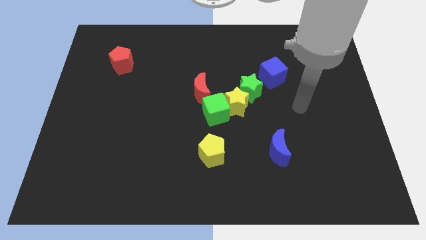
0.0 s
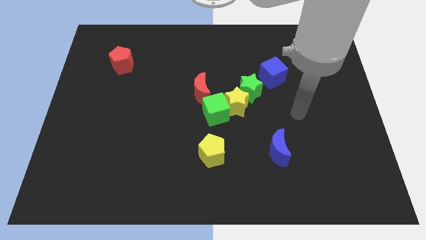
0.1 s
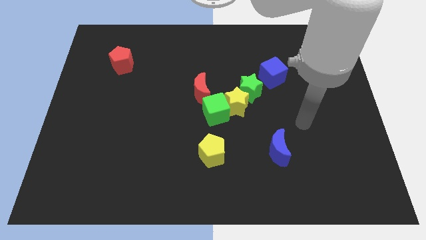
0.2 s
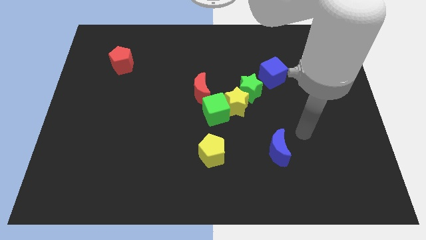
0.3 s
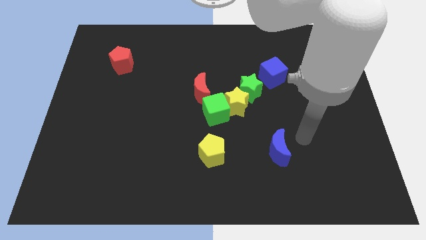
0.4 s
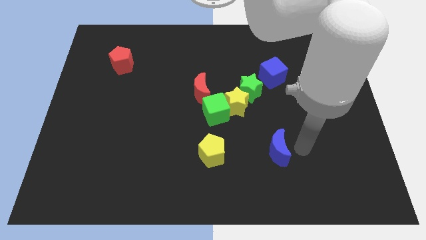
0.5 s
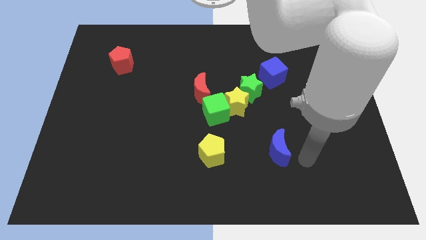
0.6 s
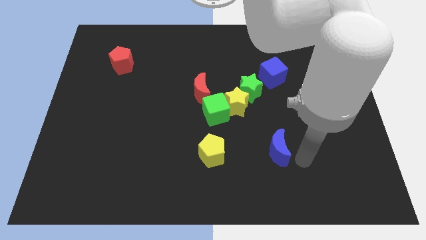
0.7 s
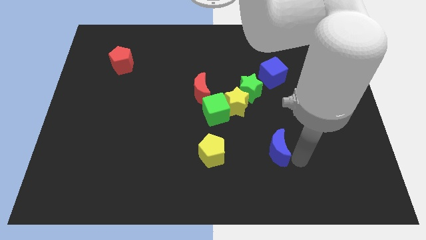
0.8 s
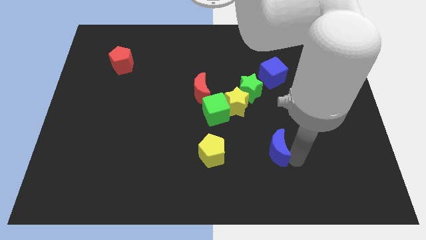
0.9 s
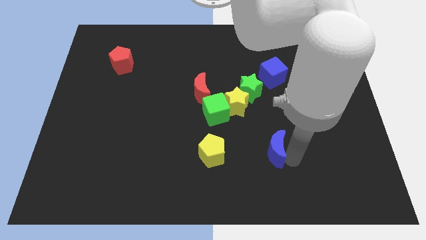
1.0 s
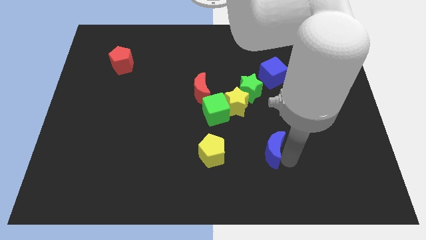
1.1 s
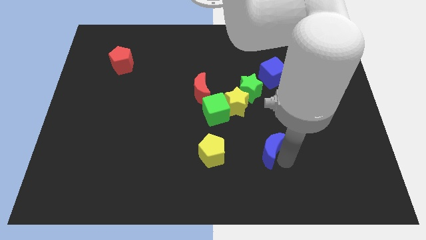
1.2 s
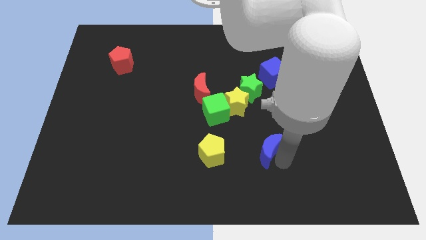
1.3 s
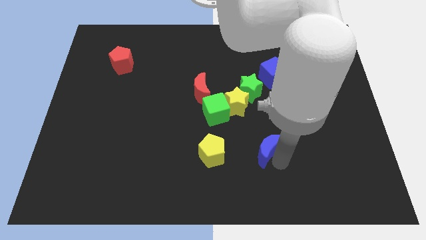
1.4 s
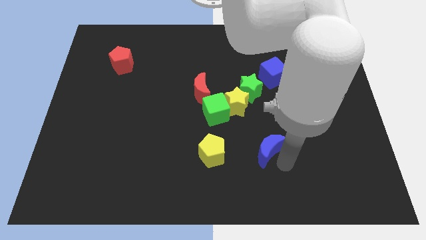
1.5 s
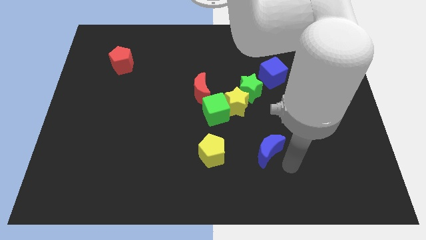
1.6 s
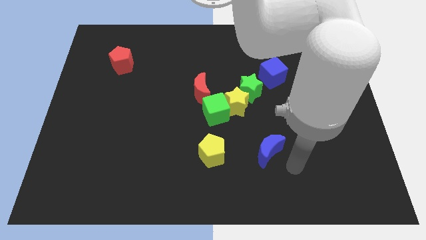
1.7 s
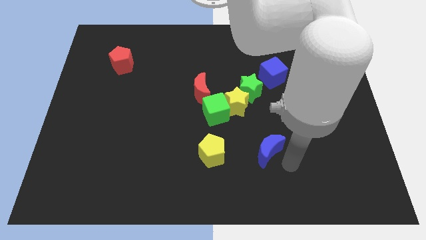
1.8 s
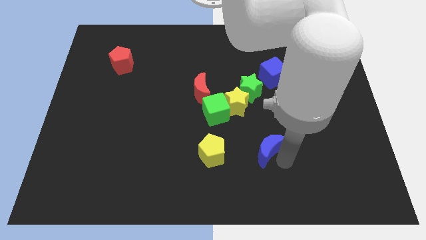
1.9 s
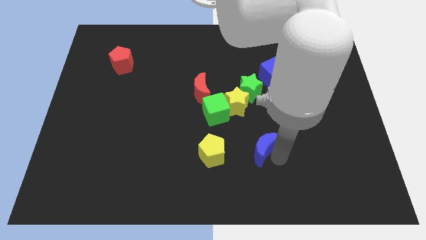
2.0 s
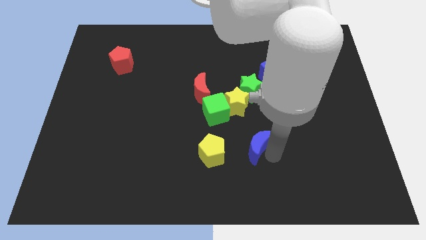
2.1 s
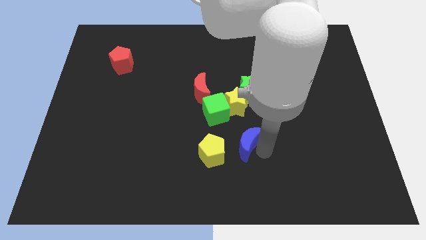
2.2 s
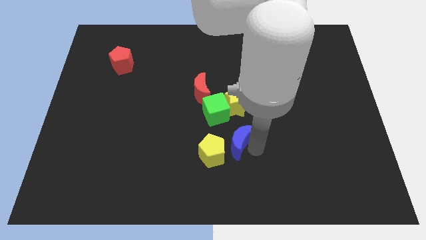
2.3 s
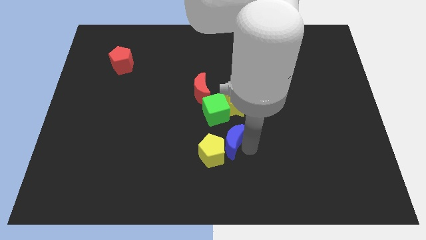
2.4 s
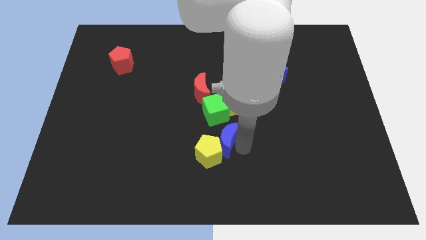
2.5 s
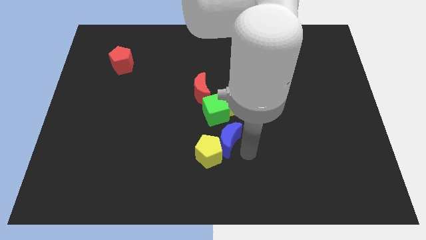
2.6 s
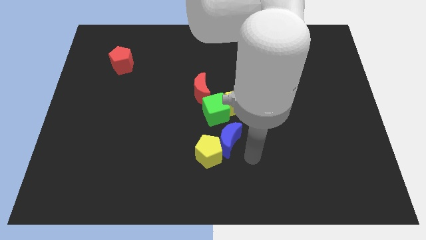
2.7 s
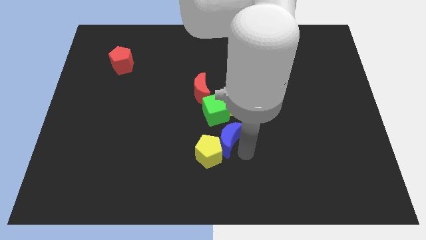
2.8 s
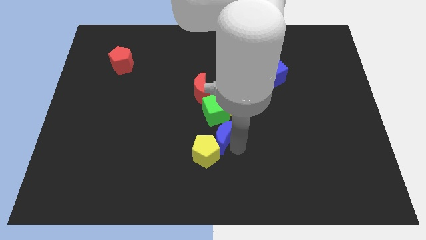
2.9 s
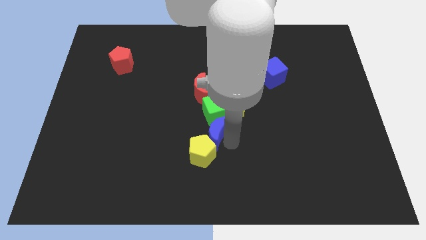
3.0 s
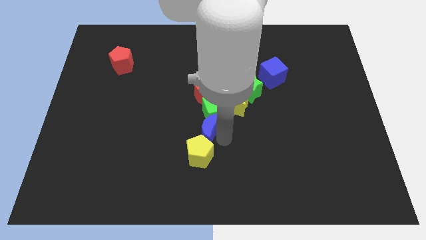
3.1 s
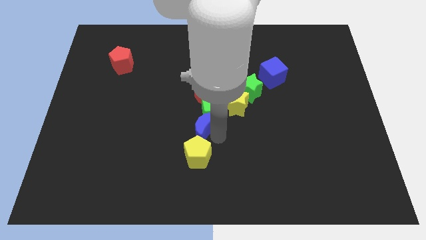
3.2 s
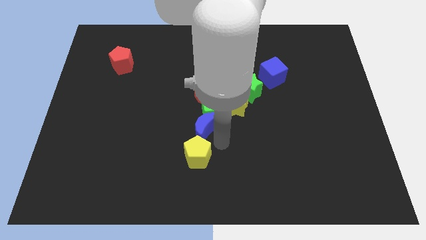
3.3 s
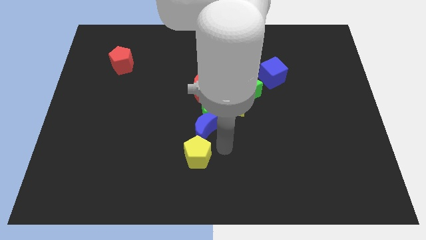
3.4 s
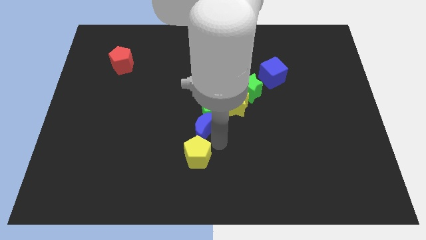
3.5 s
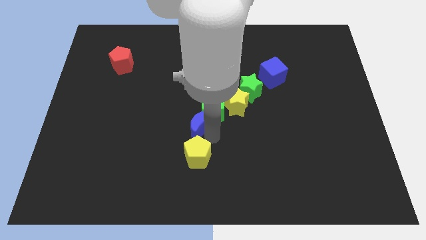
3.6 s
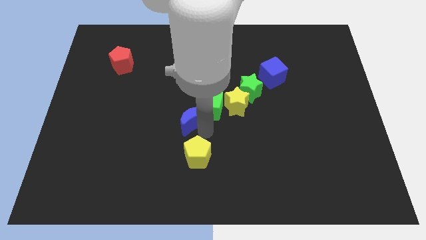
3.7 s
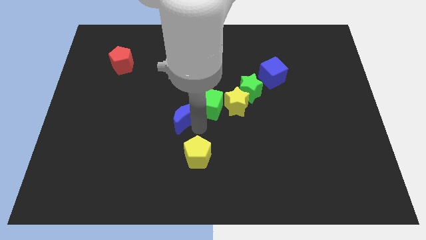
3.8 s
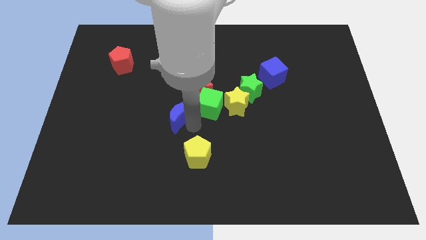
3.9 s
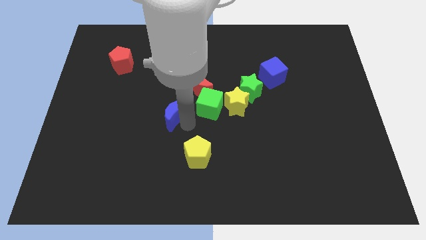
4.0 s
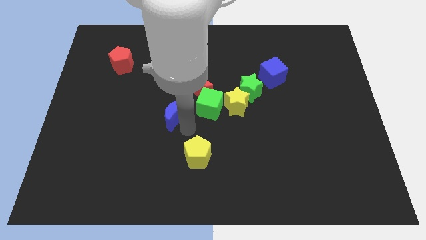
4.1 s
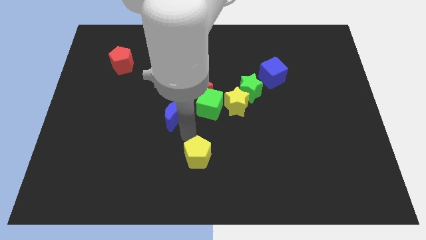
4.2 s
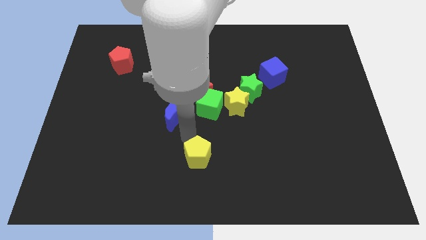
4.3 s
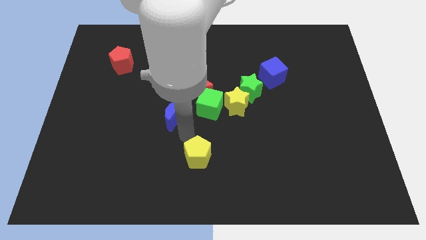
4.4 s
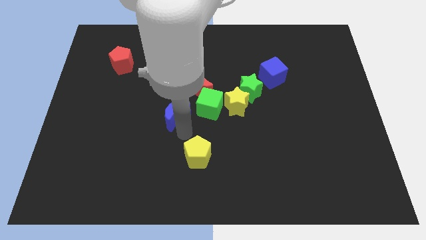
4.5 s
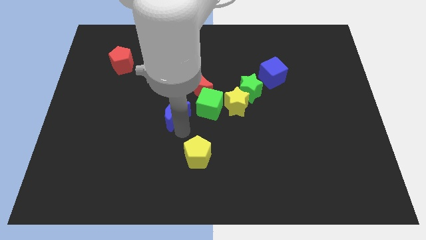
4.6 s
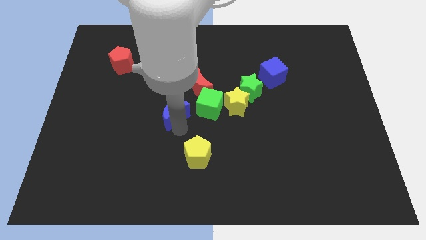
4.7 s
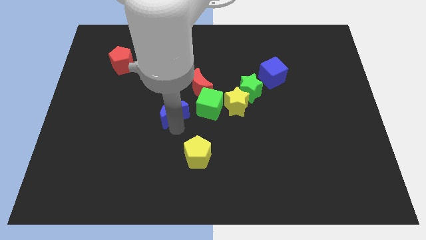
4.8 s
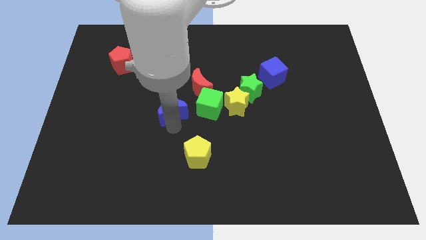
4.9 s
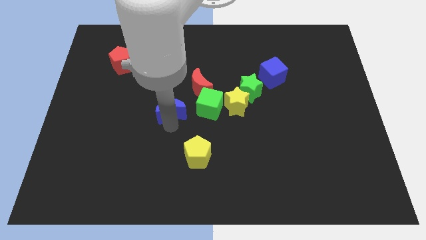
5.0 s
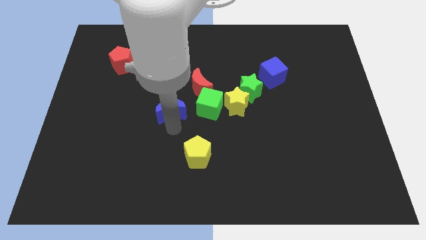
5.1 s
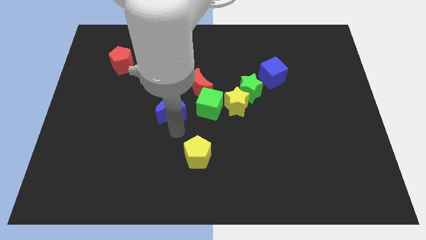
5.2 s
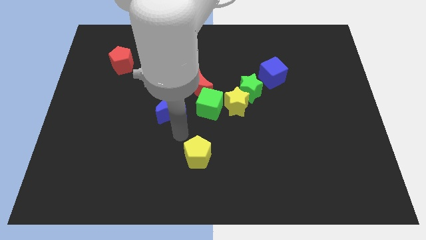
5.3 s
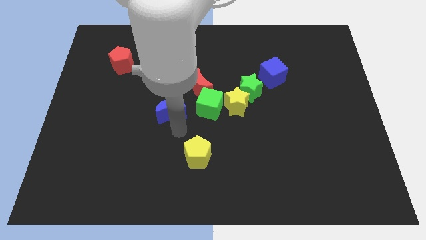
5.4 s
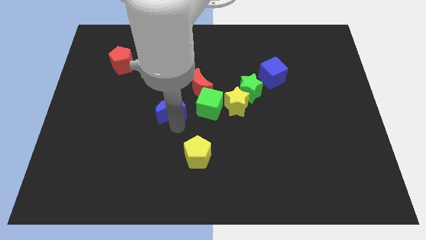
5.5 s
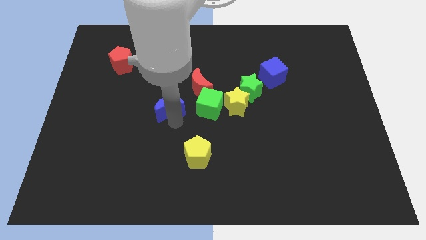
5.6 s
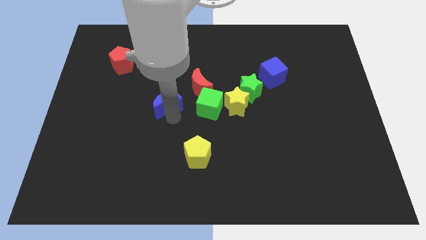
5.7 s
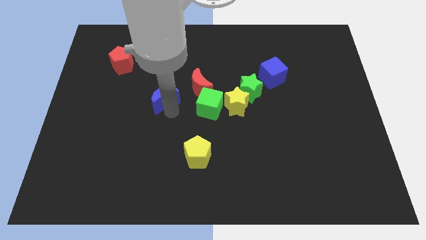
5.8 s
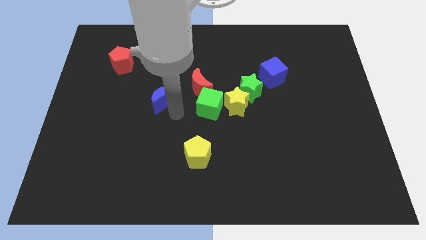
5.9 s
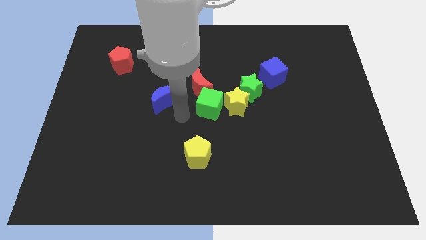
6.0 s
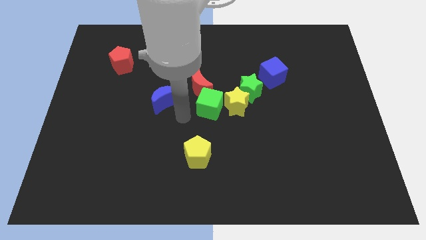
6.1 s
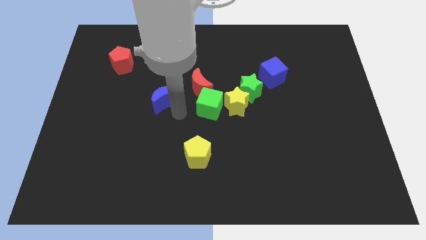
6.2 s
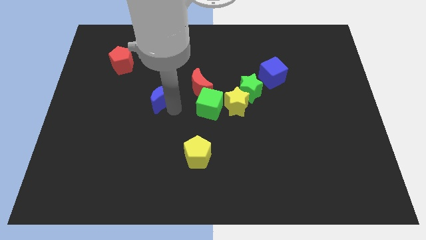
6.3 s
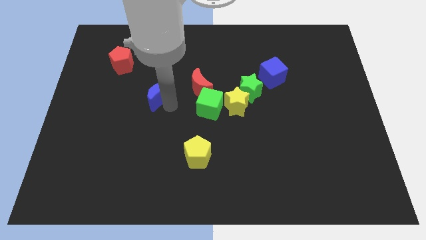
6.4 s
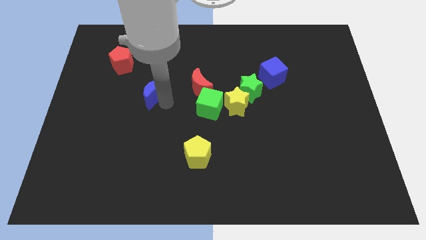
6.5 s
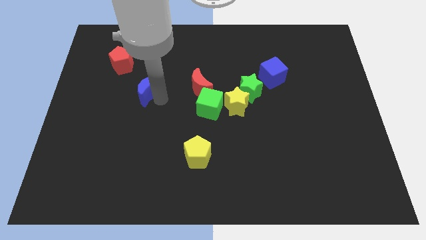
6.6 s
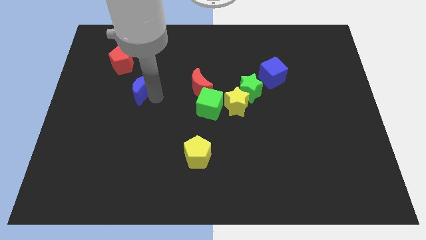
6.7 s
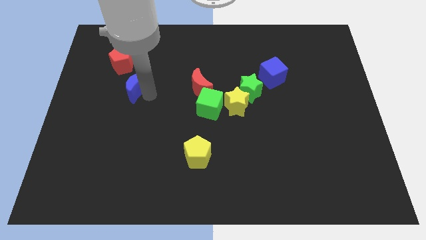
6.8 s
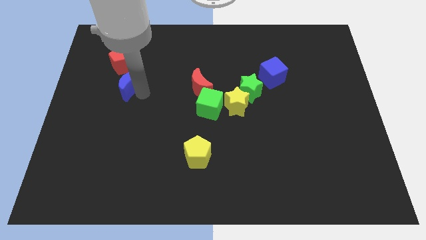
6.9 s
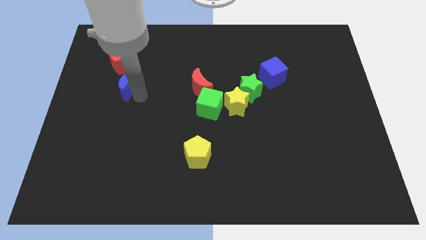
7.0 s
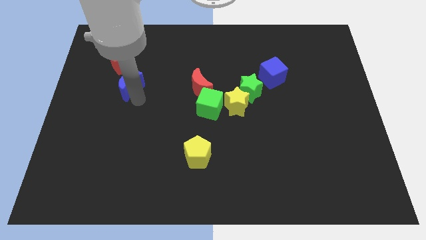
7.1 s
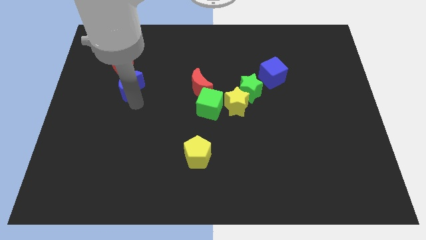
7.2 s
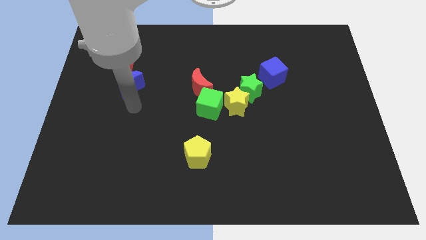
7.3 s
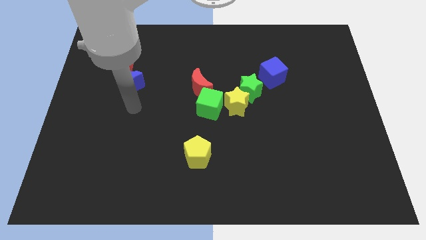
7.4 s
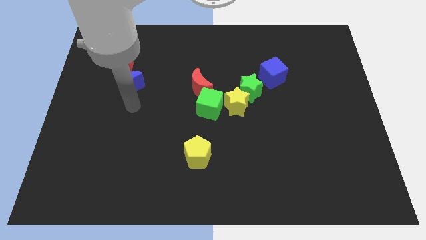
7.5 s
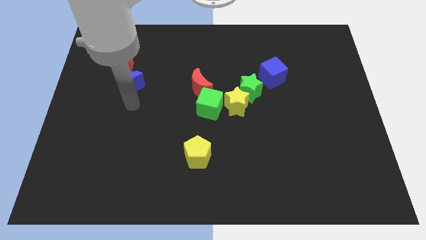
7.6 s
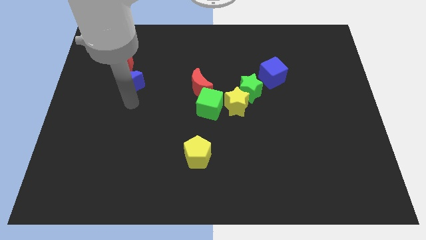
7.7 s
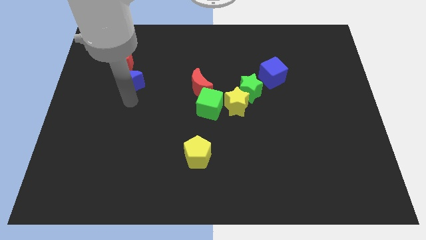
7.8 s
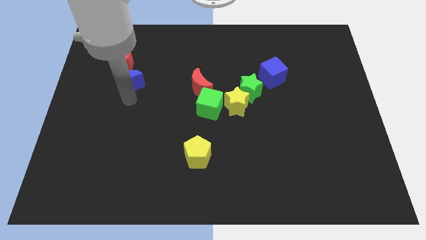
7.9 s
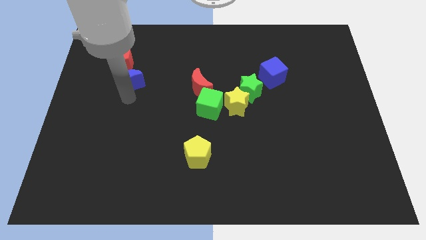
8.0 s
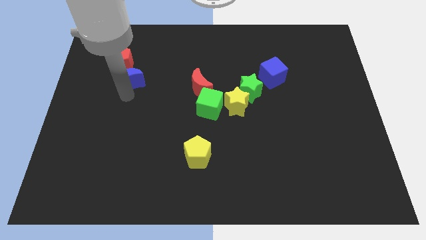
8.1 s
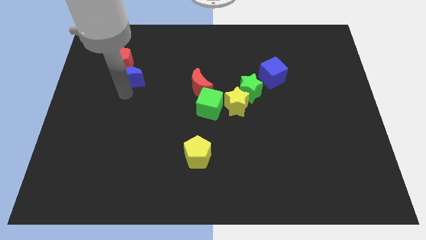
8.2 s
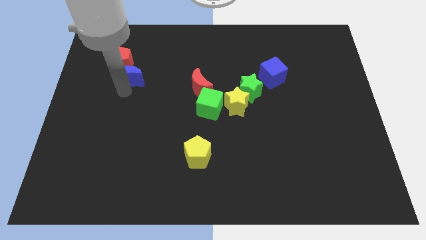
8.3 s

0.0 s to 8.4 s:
move the blue moon to the red pentagon
